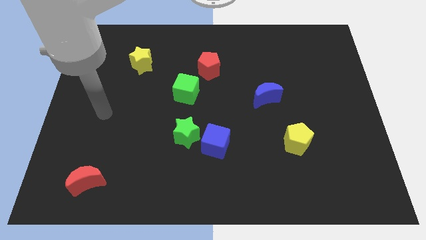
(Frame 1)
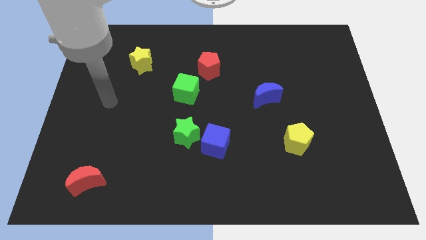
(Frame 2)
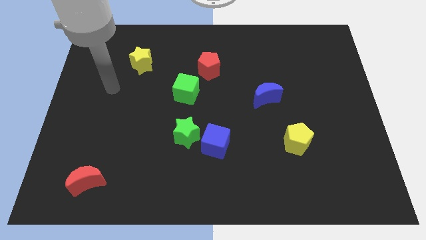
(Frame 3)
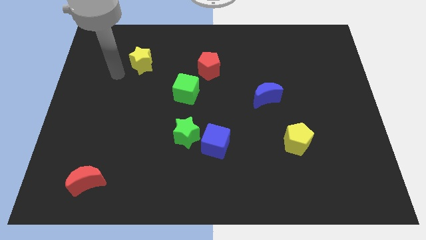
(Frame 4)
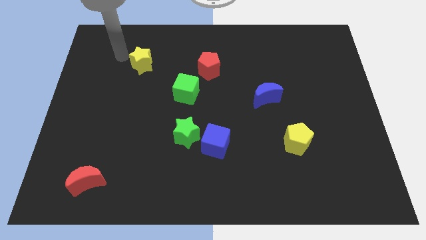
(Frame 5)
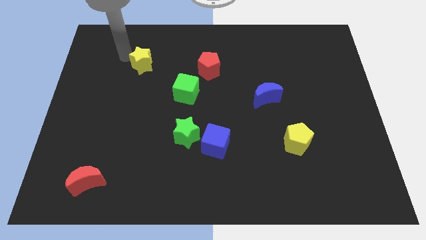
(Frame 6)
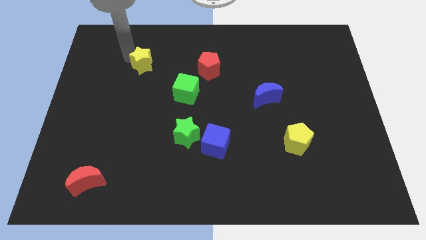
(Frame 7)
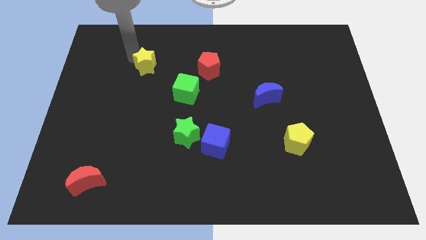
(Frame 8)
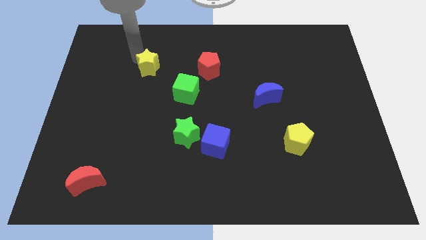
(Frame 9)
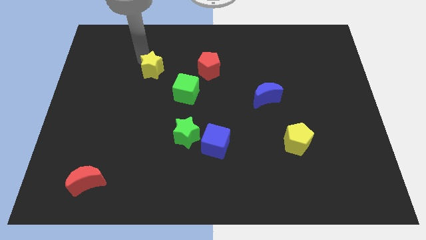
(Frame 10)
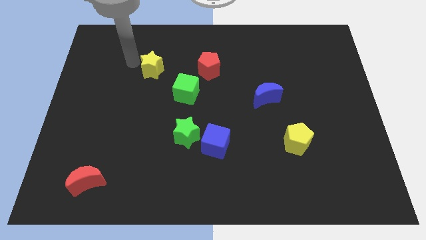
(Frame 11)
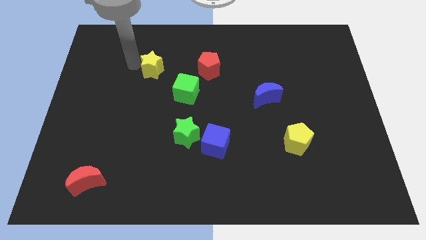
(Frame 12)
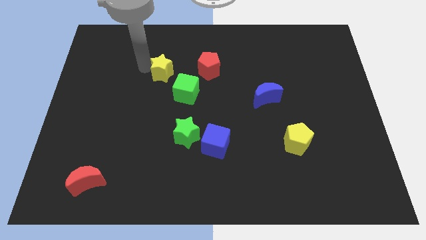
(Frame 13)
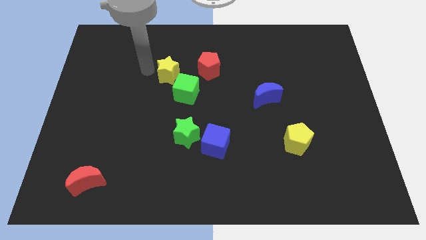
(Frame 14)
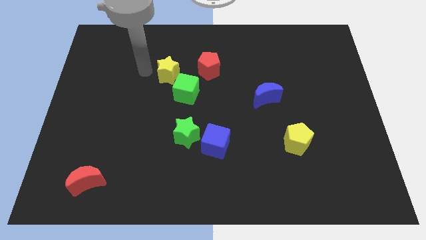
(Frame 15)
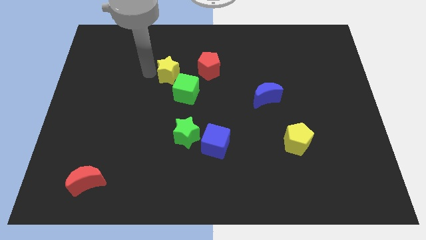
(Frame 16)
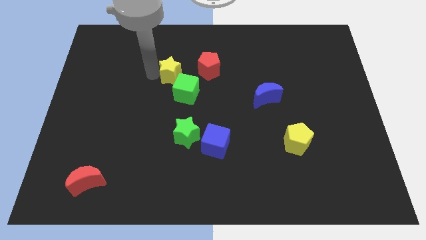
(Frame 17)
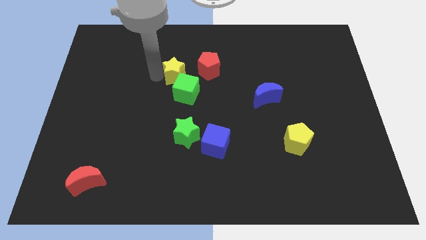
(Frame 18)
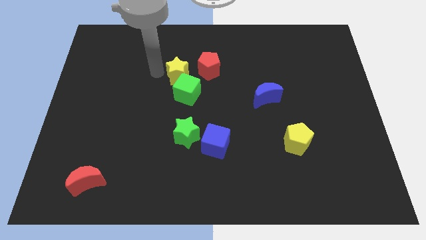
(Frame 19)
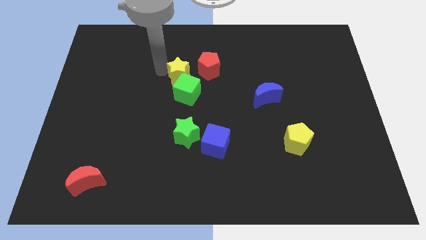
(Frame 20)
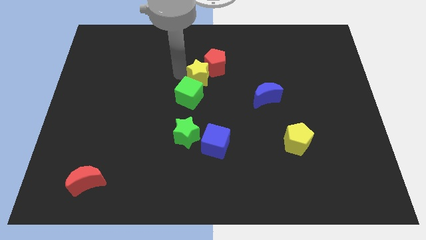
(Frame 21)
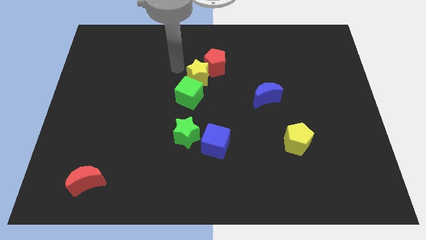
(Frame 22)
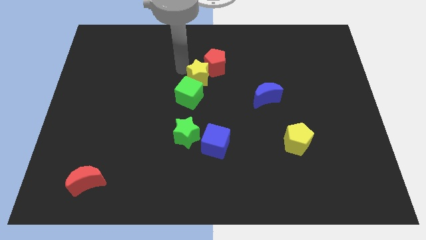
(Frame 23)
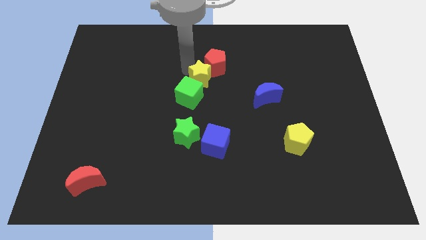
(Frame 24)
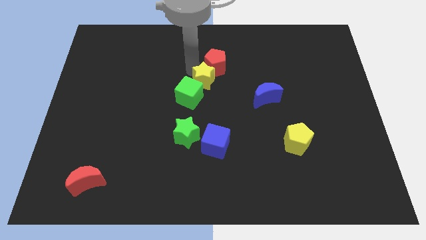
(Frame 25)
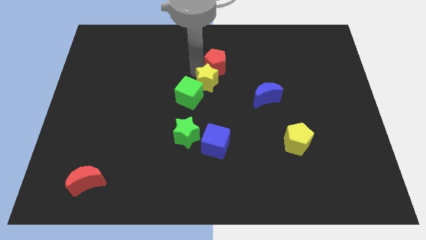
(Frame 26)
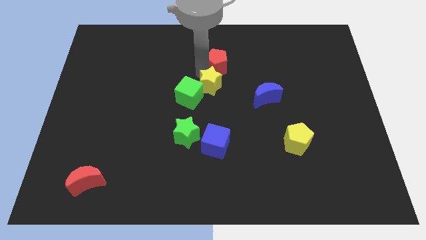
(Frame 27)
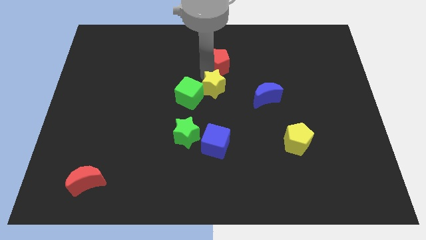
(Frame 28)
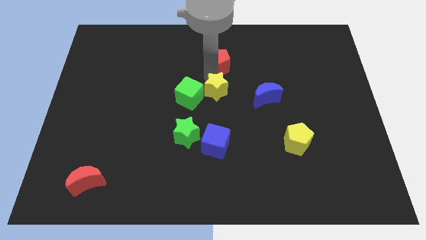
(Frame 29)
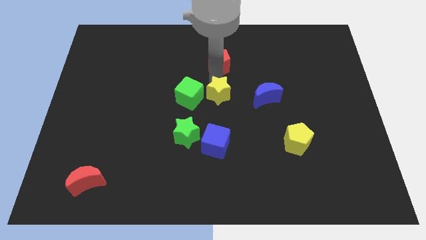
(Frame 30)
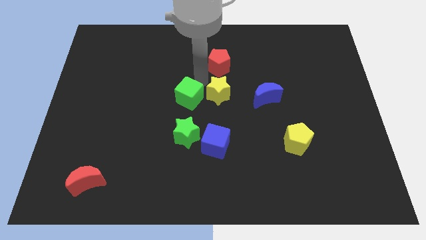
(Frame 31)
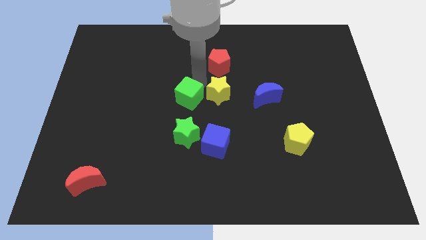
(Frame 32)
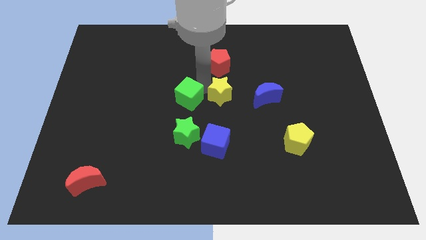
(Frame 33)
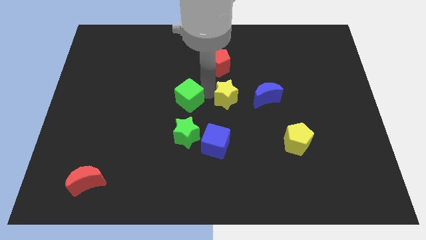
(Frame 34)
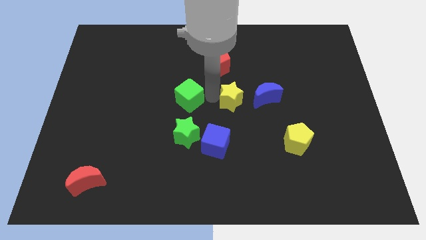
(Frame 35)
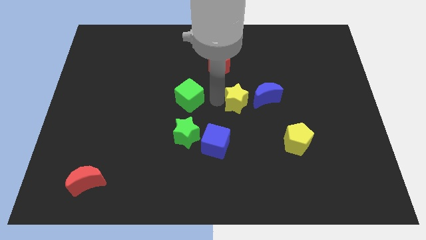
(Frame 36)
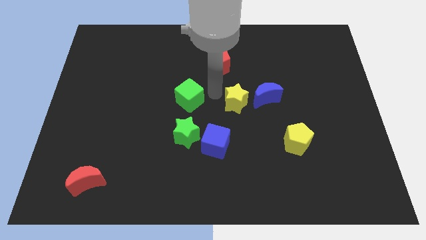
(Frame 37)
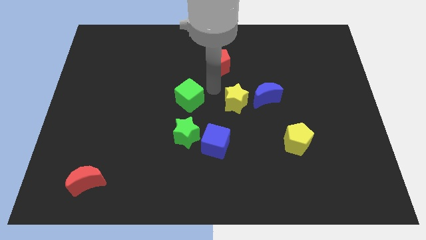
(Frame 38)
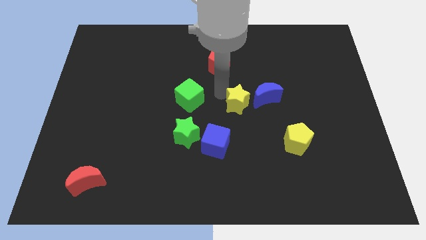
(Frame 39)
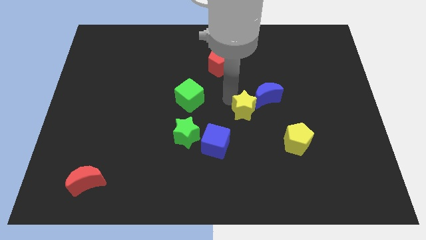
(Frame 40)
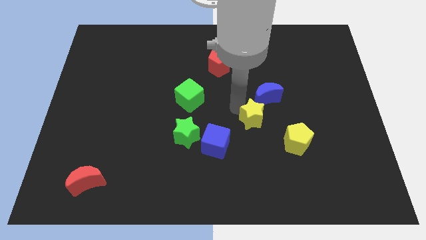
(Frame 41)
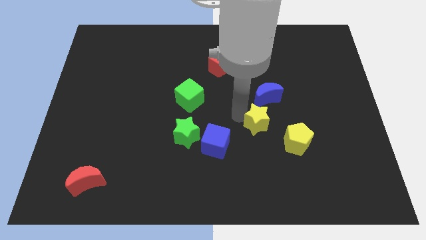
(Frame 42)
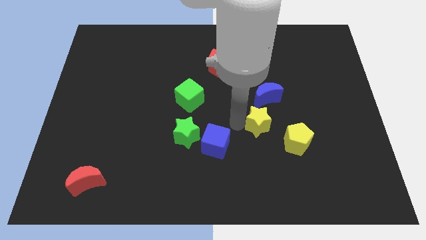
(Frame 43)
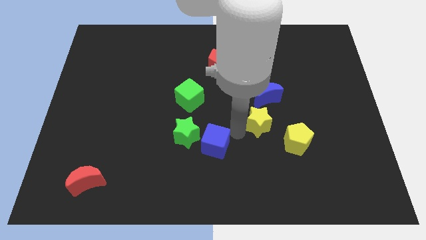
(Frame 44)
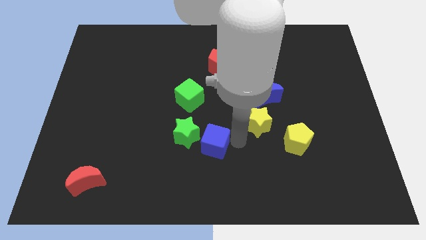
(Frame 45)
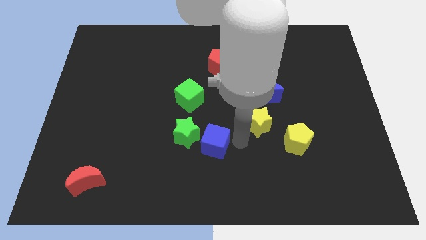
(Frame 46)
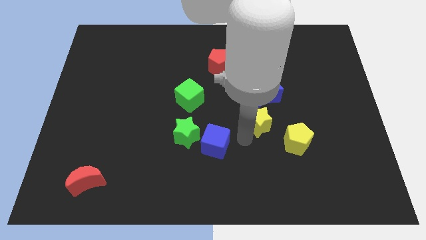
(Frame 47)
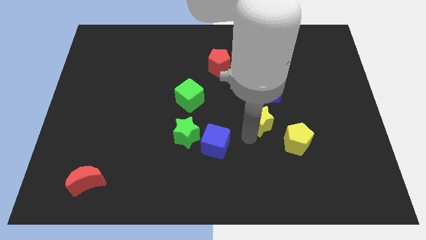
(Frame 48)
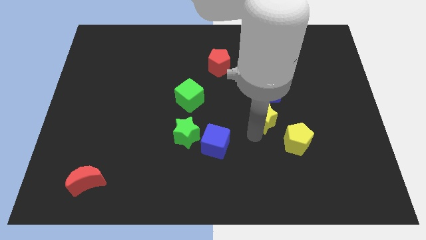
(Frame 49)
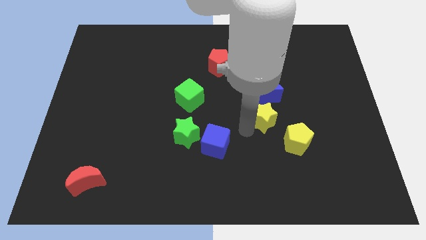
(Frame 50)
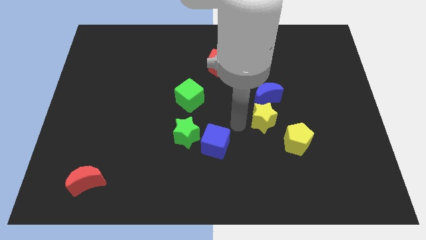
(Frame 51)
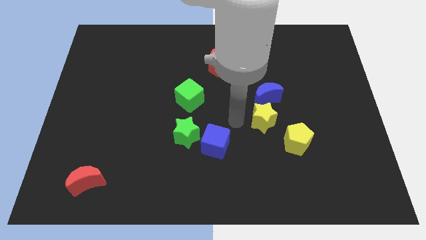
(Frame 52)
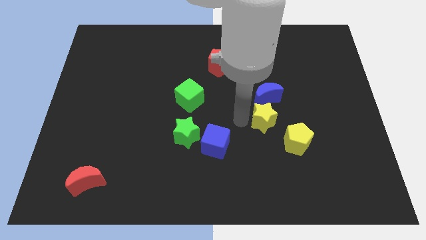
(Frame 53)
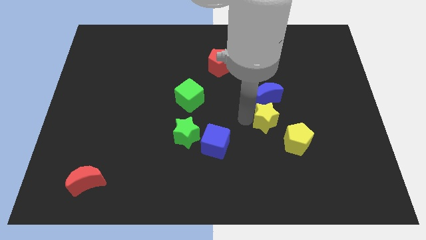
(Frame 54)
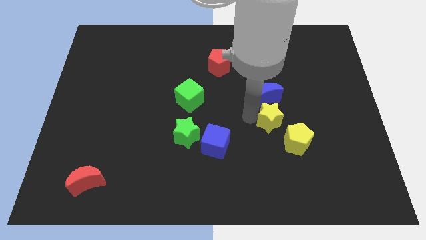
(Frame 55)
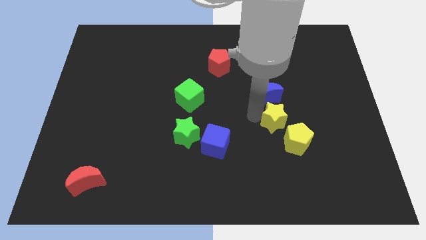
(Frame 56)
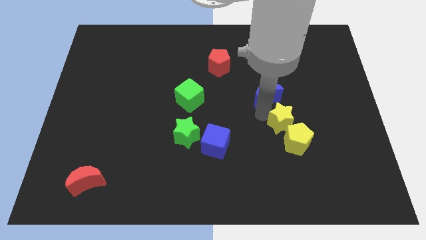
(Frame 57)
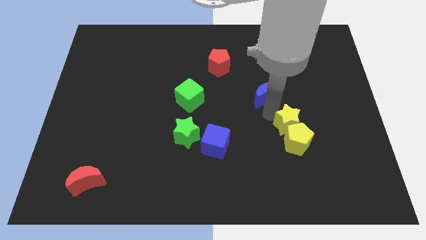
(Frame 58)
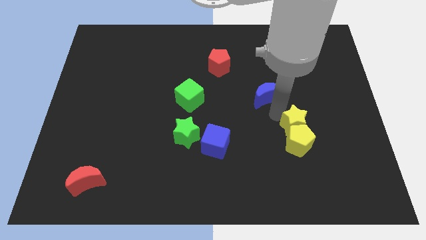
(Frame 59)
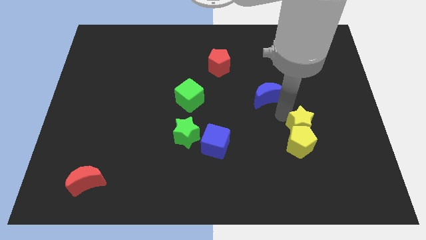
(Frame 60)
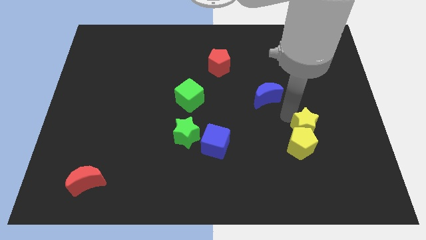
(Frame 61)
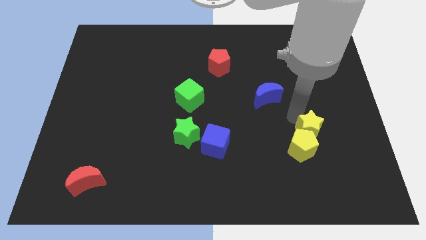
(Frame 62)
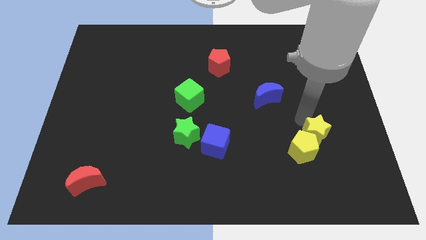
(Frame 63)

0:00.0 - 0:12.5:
move the yellow star to the right side of the yellow pentagon
